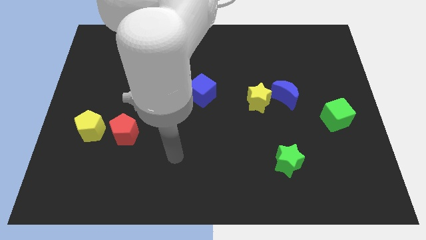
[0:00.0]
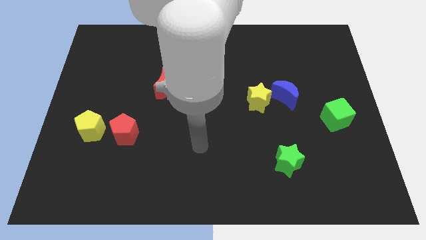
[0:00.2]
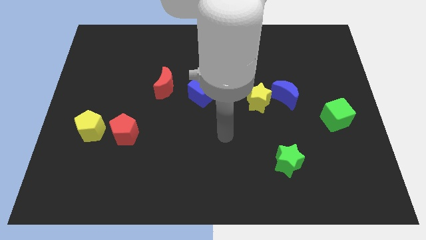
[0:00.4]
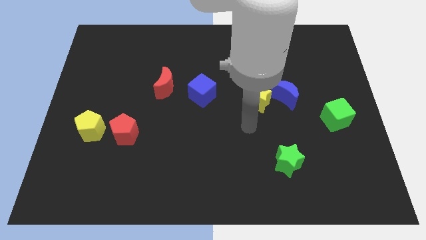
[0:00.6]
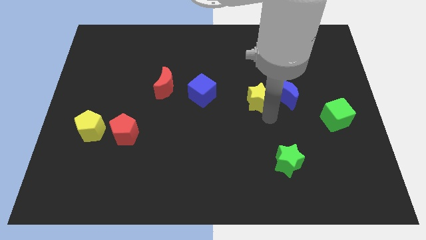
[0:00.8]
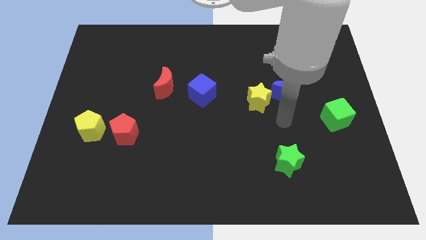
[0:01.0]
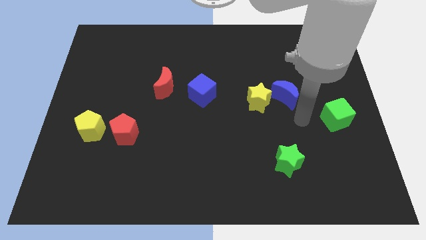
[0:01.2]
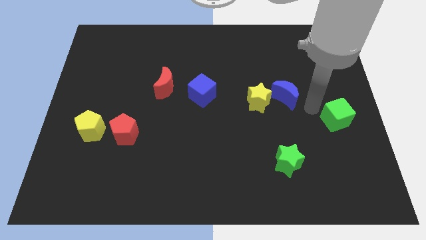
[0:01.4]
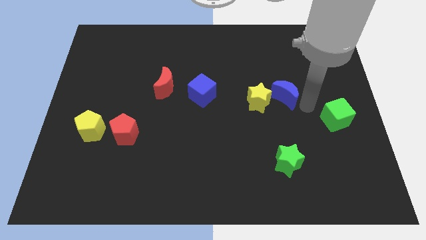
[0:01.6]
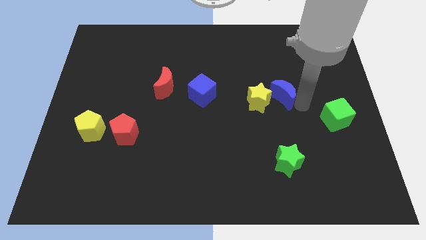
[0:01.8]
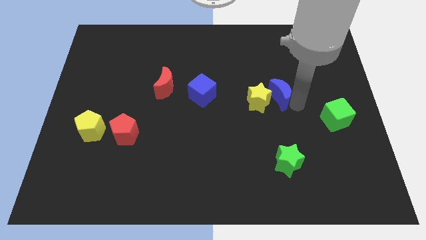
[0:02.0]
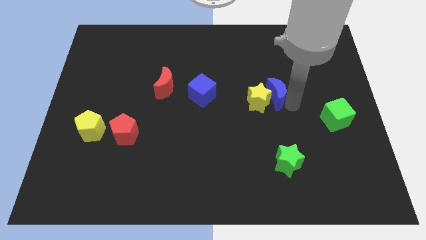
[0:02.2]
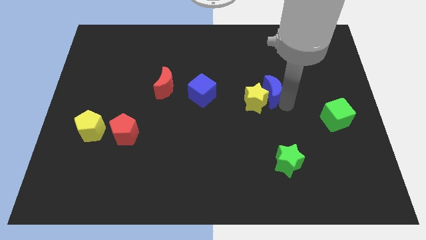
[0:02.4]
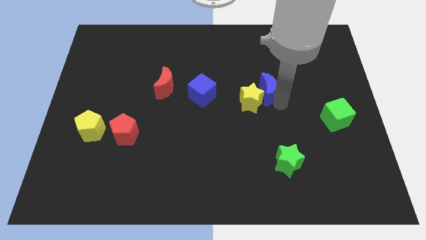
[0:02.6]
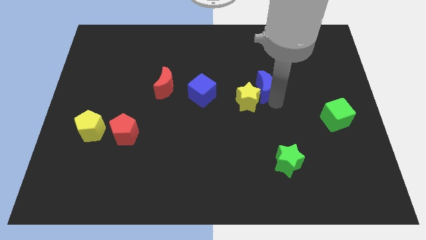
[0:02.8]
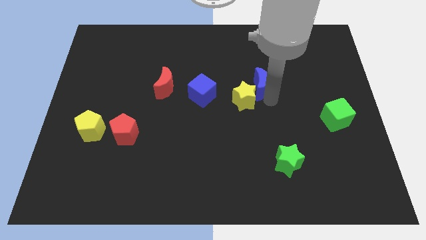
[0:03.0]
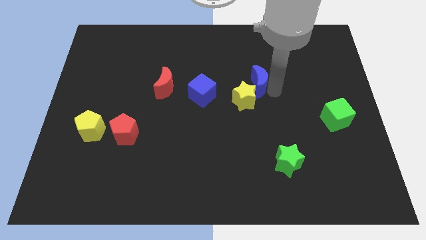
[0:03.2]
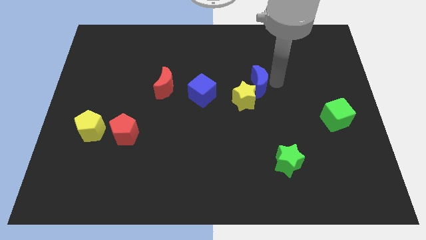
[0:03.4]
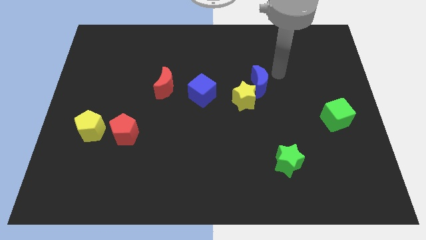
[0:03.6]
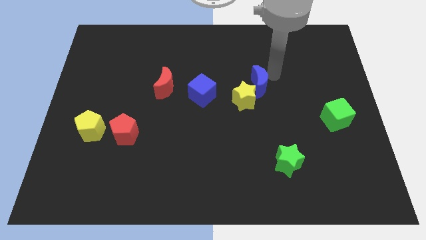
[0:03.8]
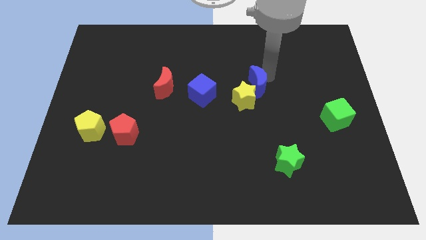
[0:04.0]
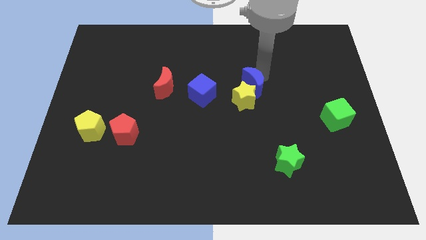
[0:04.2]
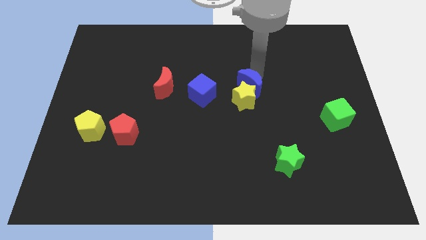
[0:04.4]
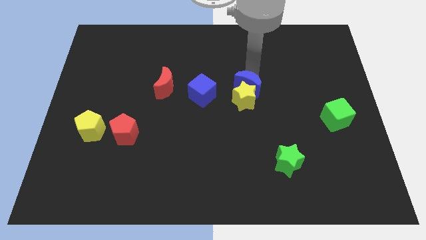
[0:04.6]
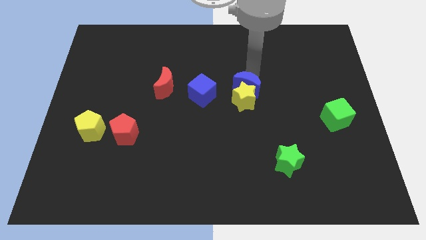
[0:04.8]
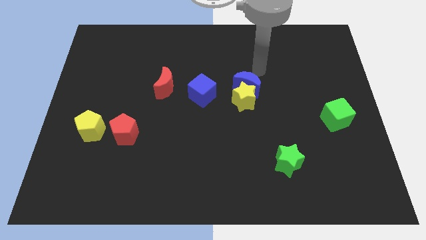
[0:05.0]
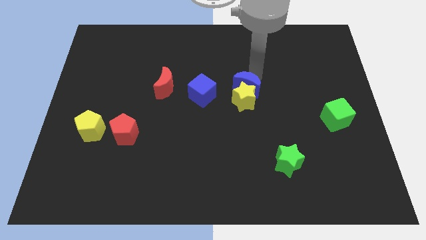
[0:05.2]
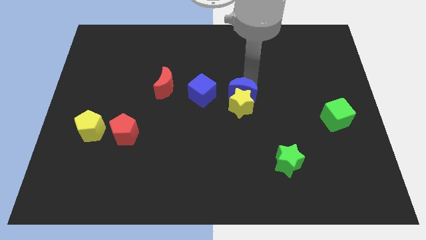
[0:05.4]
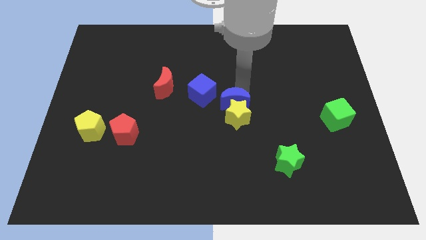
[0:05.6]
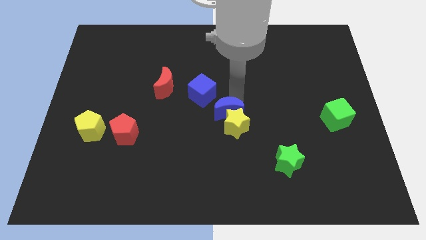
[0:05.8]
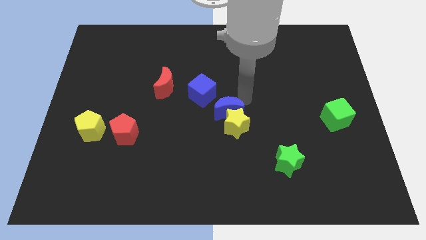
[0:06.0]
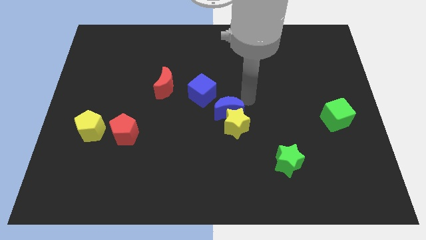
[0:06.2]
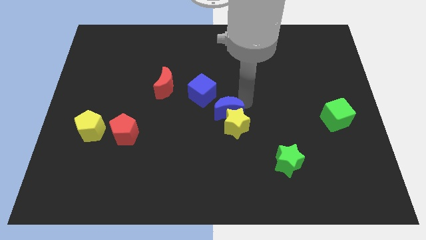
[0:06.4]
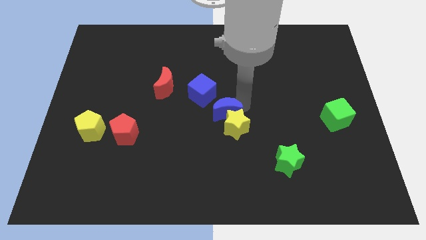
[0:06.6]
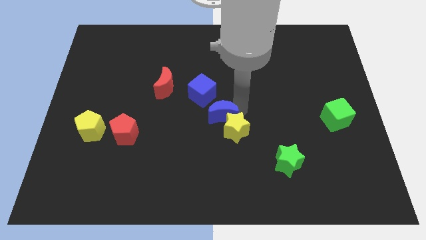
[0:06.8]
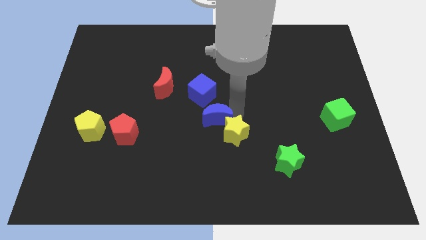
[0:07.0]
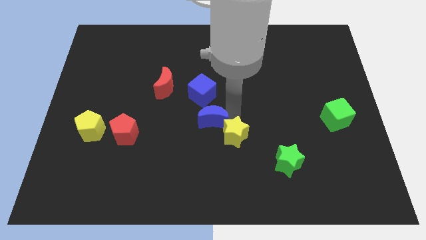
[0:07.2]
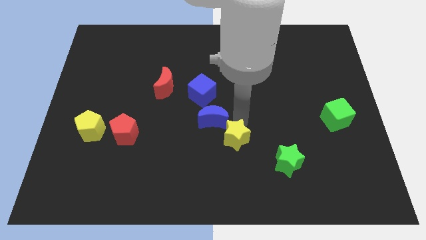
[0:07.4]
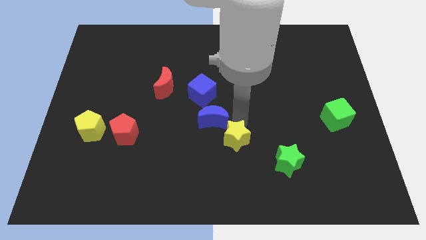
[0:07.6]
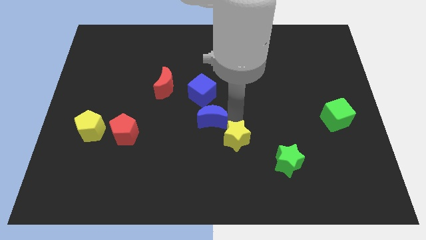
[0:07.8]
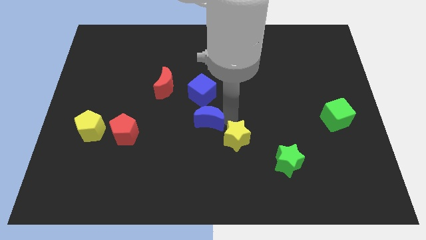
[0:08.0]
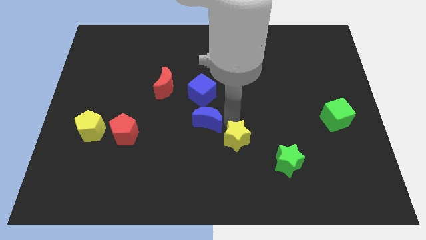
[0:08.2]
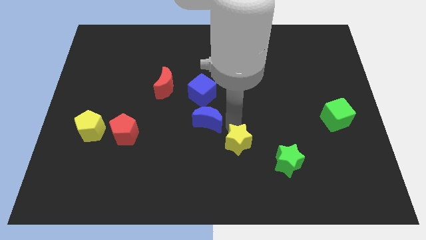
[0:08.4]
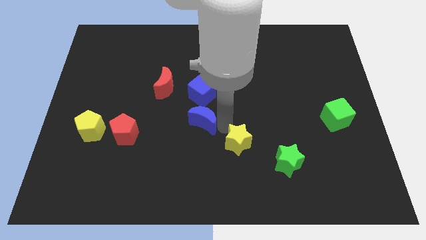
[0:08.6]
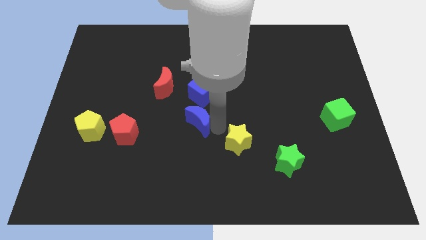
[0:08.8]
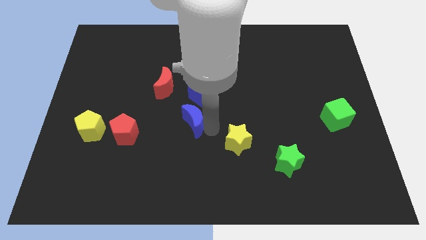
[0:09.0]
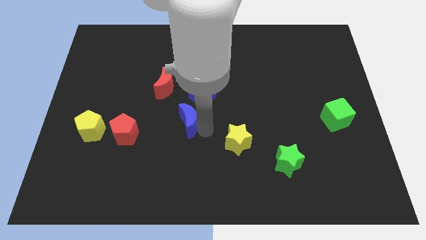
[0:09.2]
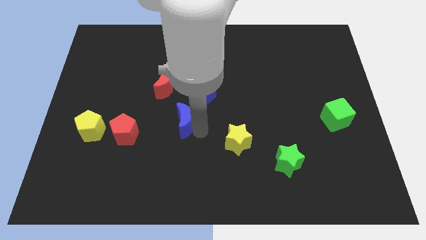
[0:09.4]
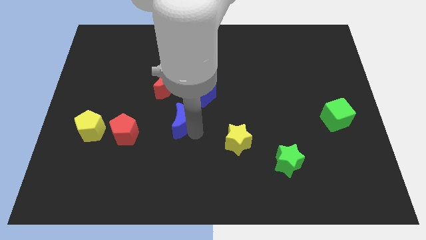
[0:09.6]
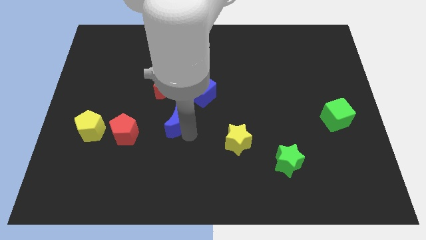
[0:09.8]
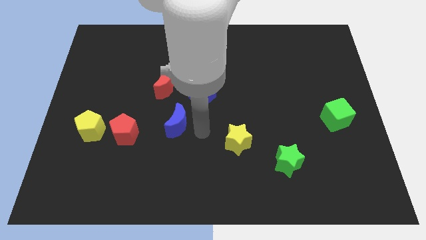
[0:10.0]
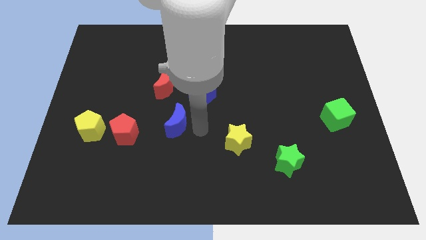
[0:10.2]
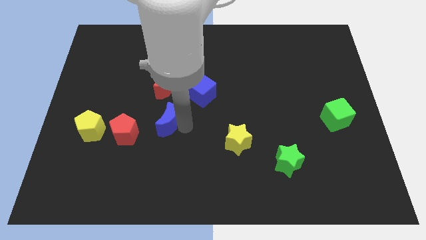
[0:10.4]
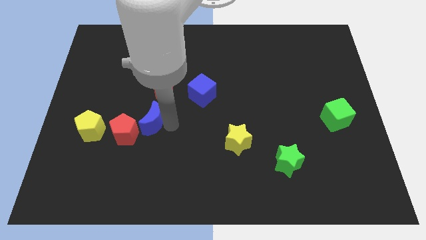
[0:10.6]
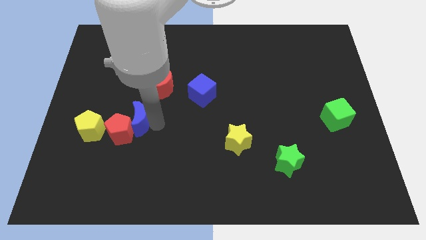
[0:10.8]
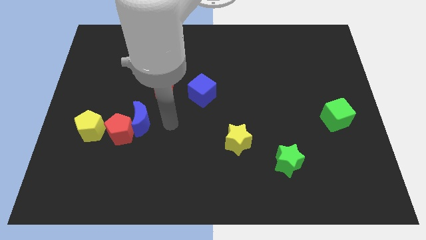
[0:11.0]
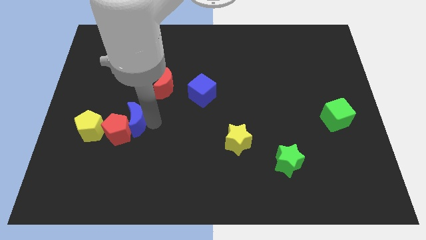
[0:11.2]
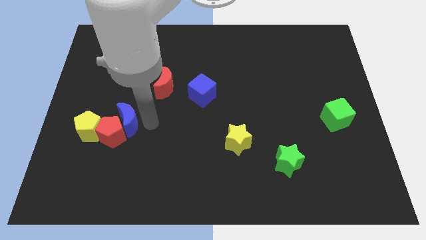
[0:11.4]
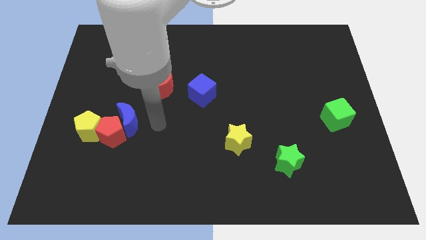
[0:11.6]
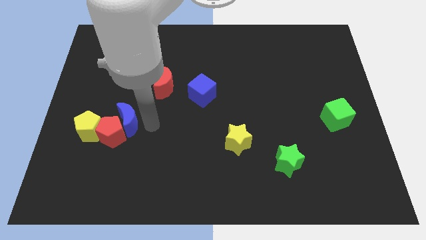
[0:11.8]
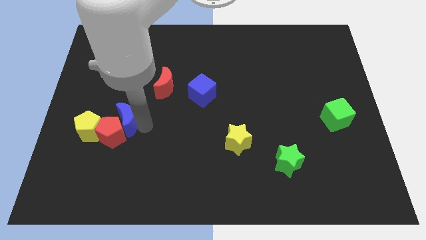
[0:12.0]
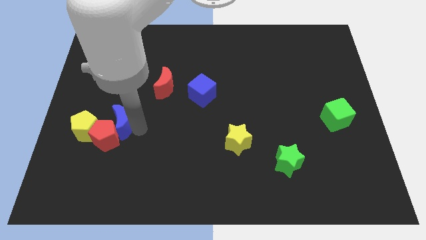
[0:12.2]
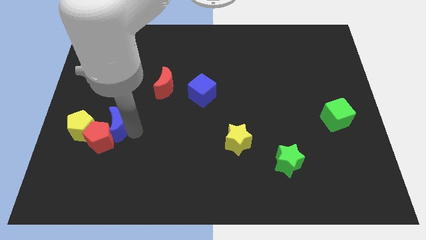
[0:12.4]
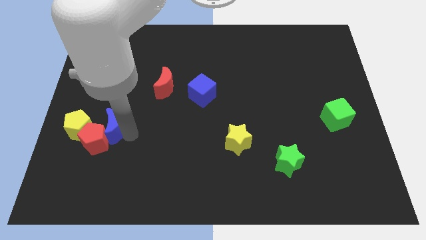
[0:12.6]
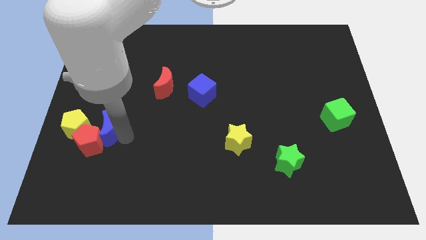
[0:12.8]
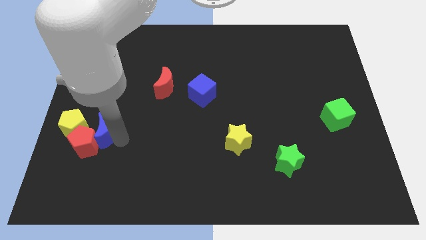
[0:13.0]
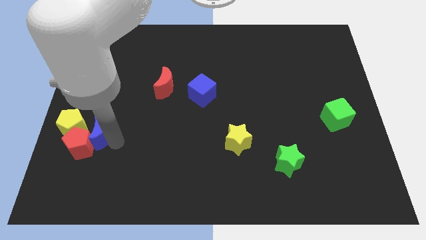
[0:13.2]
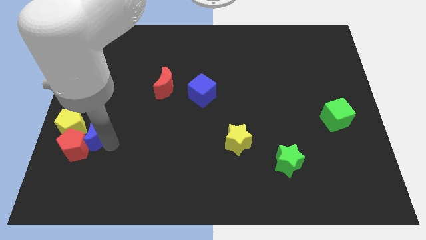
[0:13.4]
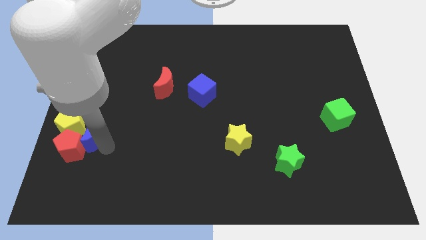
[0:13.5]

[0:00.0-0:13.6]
move the blue moon close to the yellow pentagon
